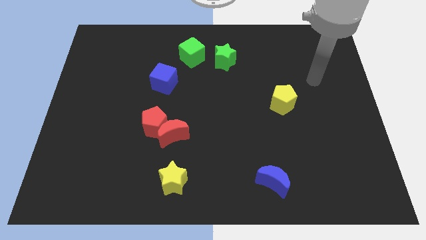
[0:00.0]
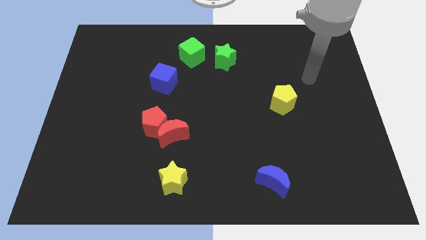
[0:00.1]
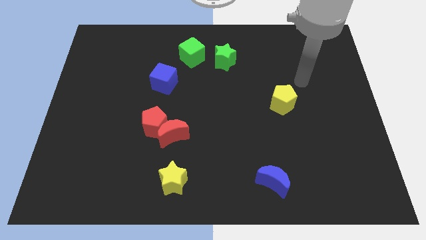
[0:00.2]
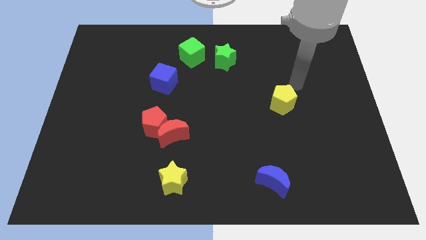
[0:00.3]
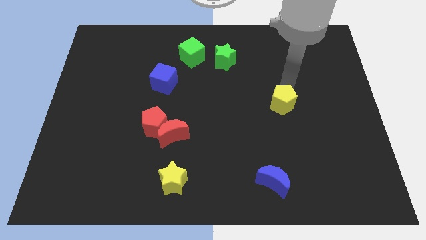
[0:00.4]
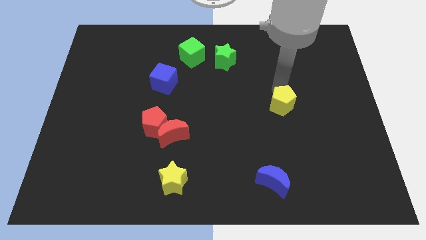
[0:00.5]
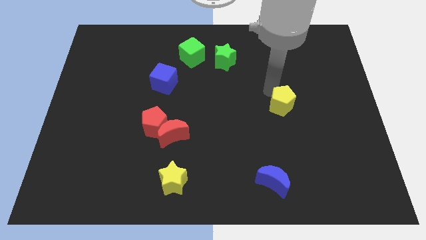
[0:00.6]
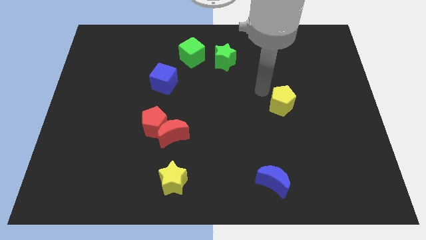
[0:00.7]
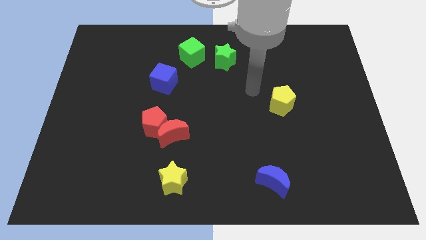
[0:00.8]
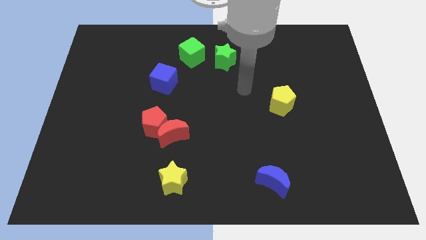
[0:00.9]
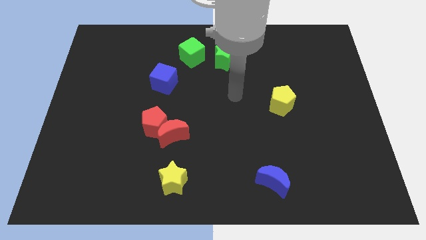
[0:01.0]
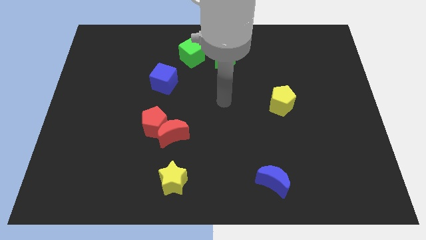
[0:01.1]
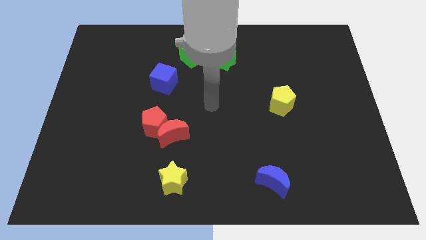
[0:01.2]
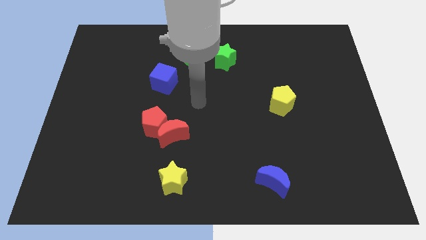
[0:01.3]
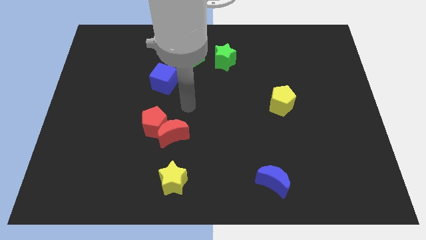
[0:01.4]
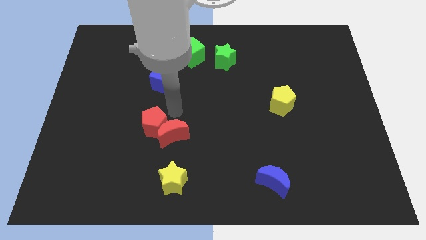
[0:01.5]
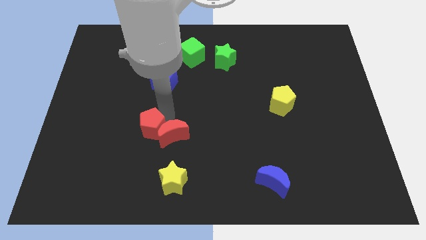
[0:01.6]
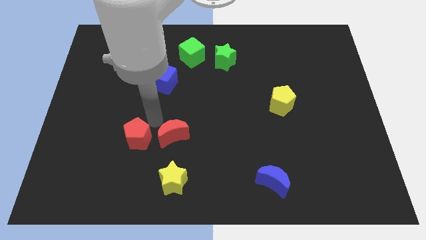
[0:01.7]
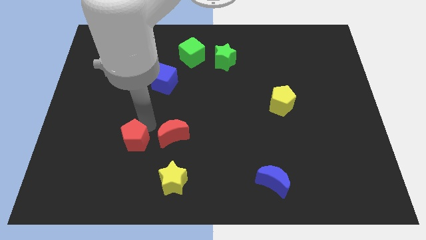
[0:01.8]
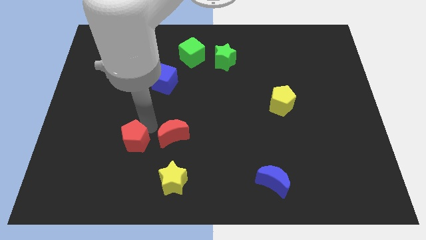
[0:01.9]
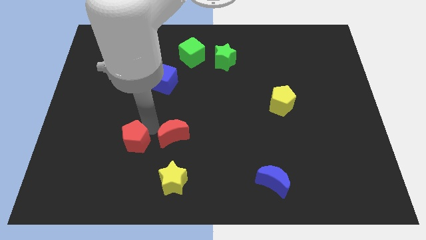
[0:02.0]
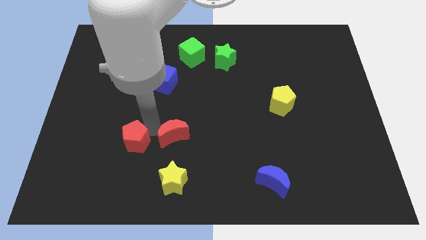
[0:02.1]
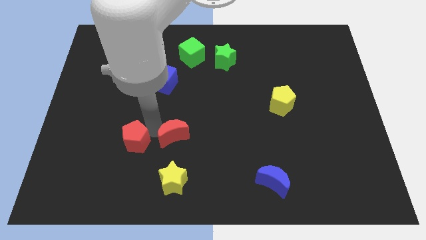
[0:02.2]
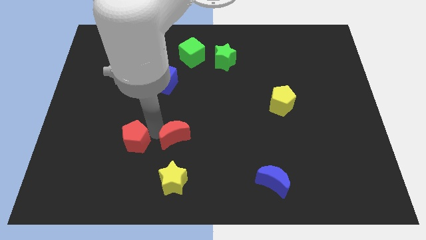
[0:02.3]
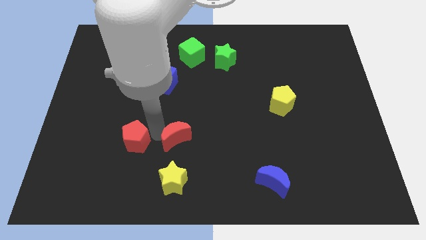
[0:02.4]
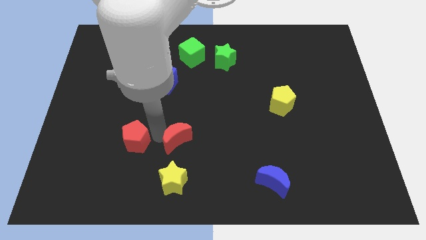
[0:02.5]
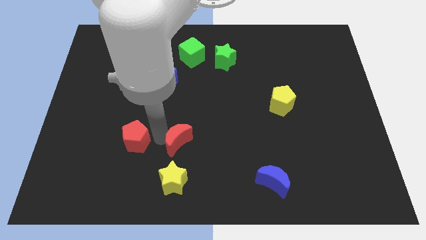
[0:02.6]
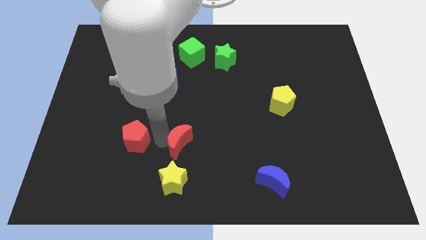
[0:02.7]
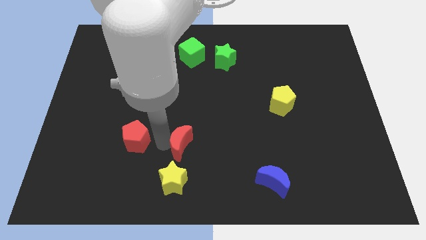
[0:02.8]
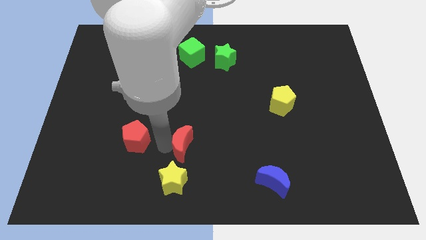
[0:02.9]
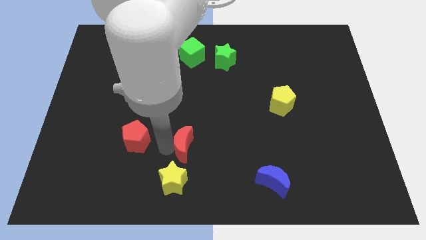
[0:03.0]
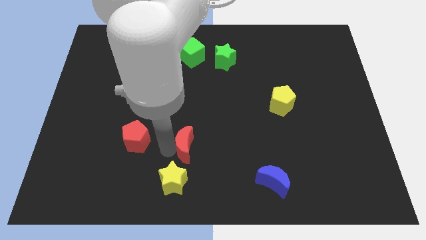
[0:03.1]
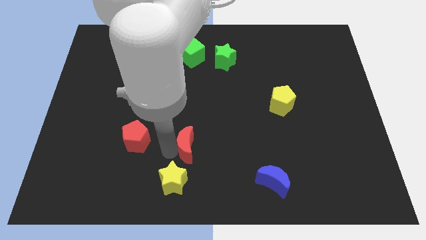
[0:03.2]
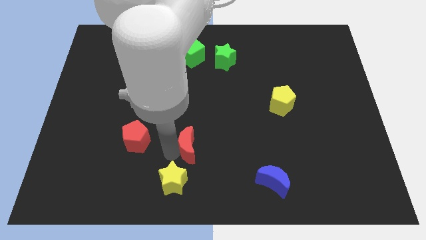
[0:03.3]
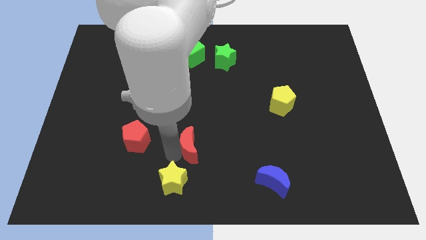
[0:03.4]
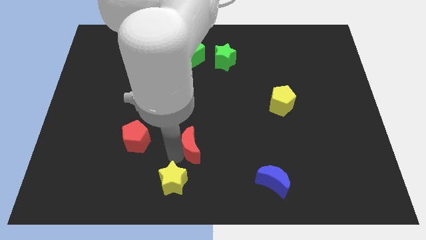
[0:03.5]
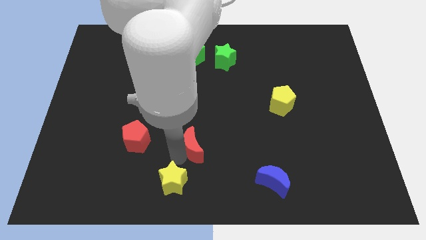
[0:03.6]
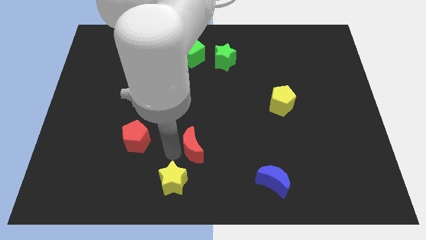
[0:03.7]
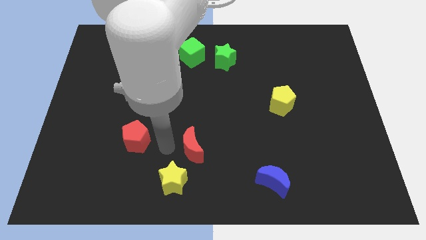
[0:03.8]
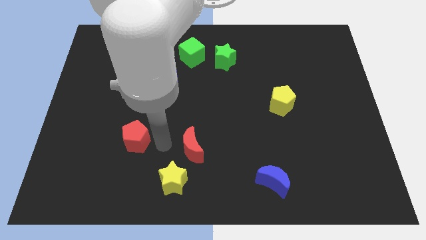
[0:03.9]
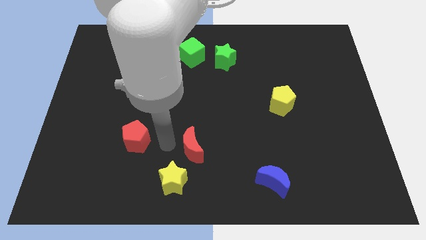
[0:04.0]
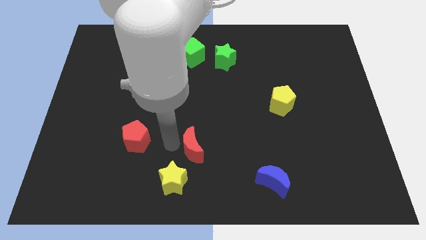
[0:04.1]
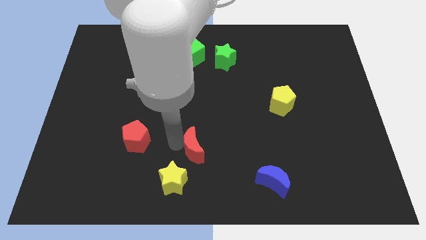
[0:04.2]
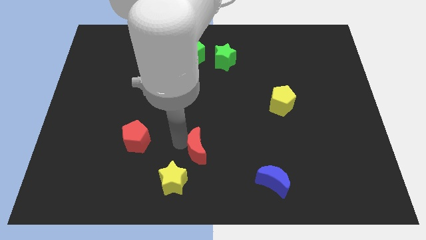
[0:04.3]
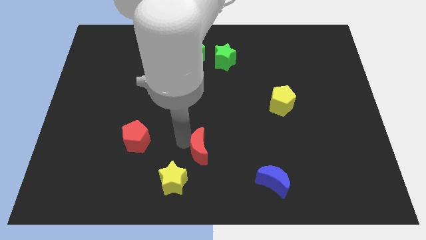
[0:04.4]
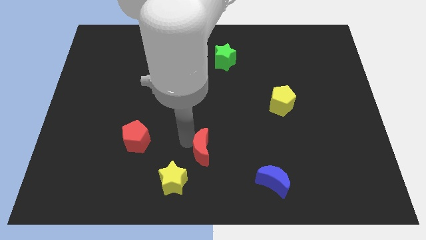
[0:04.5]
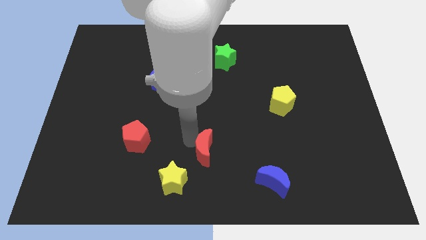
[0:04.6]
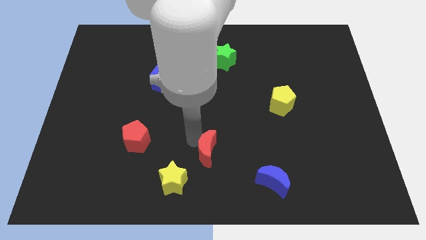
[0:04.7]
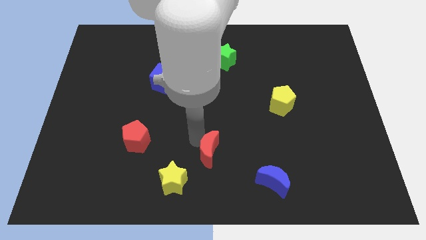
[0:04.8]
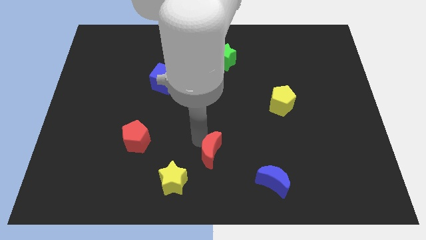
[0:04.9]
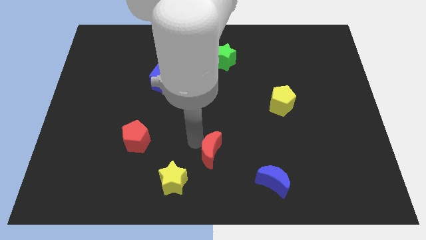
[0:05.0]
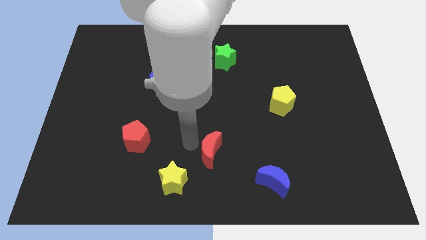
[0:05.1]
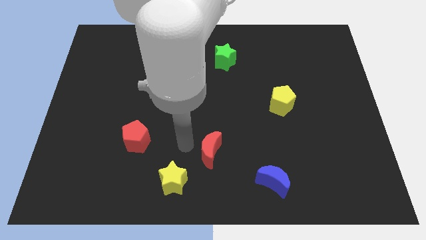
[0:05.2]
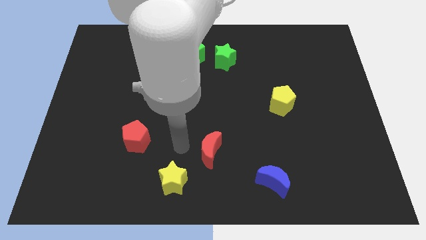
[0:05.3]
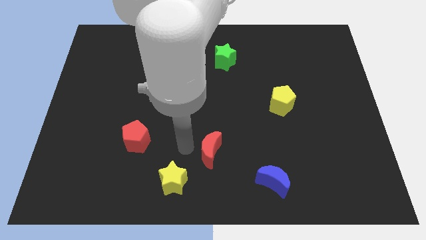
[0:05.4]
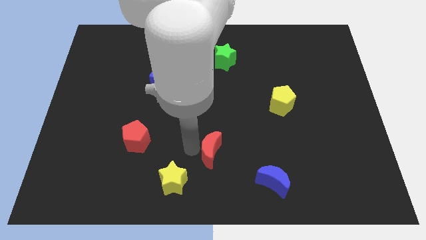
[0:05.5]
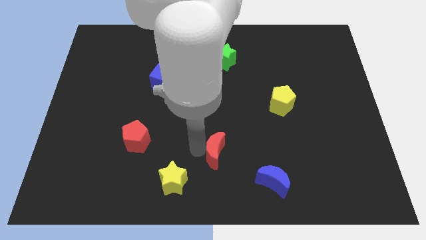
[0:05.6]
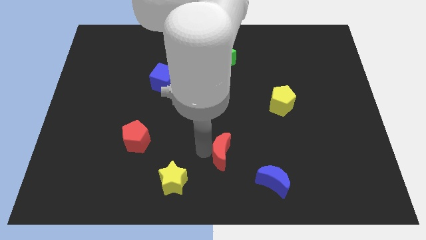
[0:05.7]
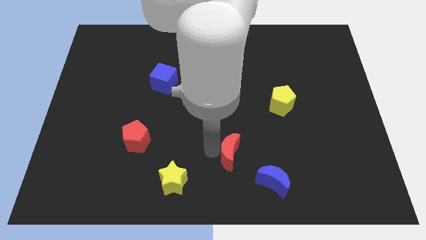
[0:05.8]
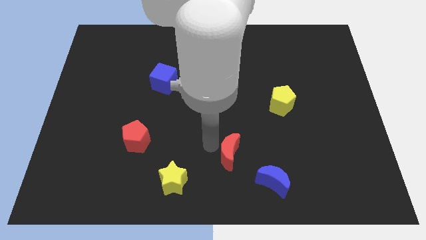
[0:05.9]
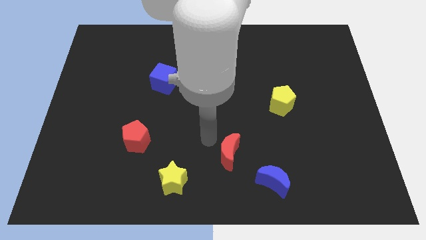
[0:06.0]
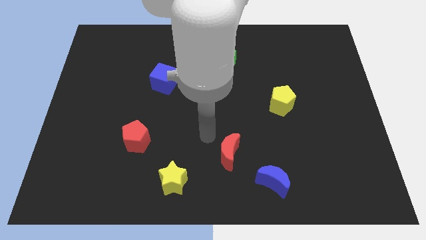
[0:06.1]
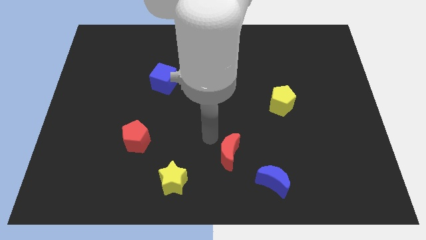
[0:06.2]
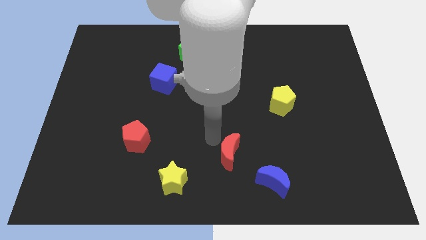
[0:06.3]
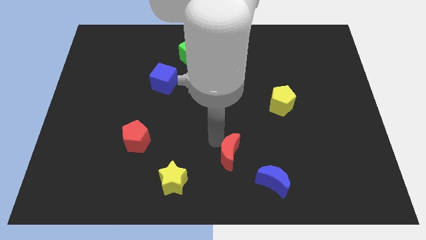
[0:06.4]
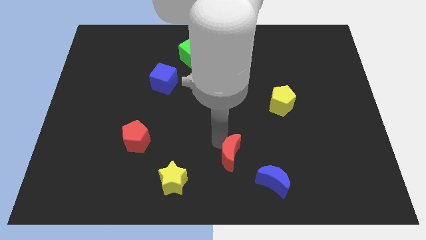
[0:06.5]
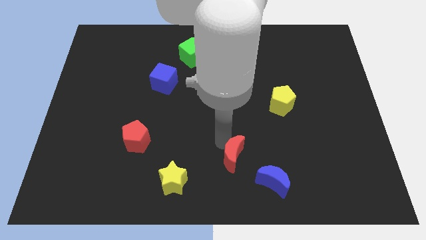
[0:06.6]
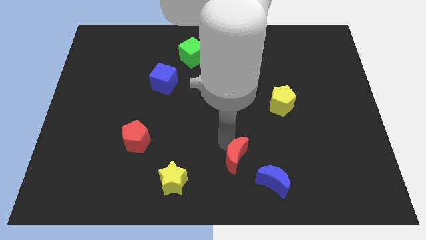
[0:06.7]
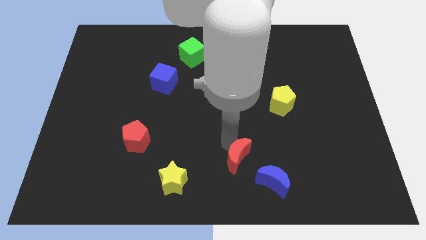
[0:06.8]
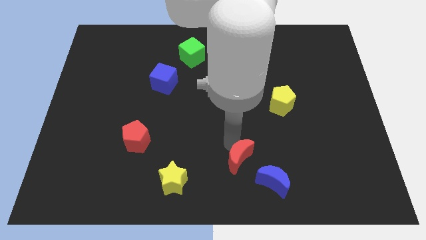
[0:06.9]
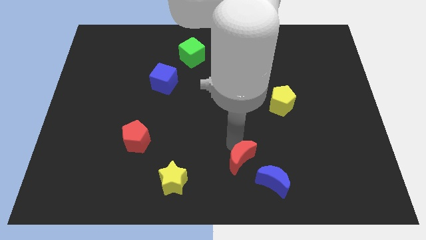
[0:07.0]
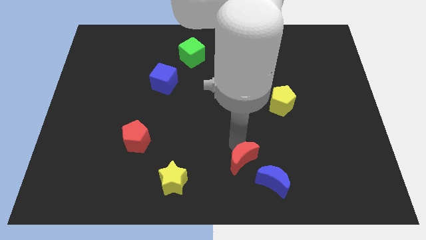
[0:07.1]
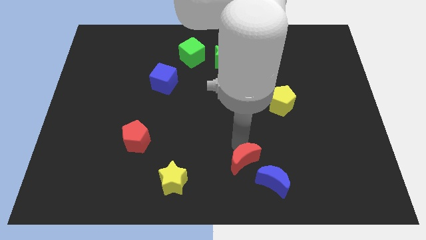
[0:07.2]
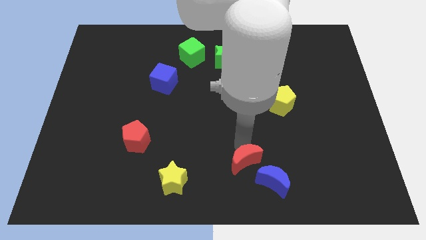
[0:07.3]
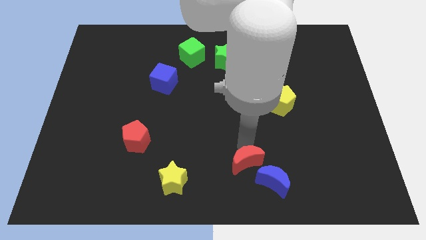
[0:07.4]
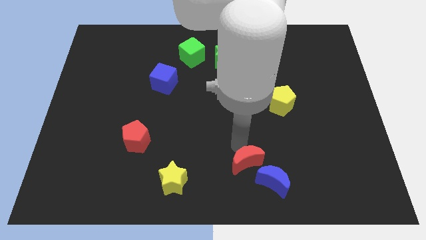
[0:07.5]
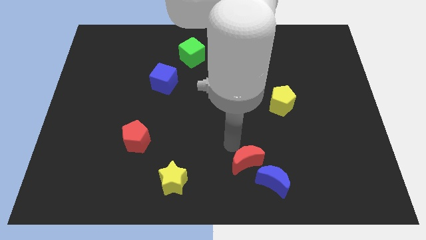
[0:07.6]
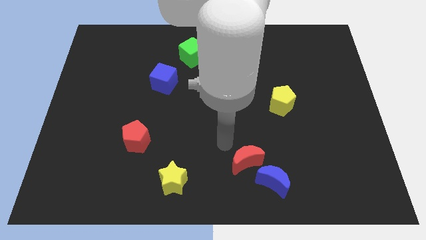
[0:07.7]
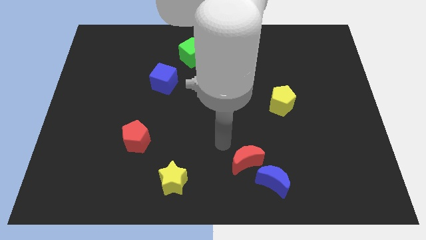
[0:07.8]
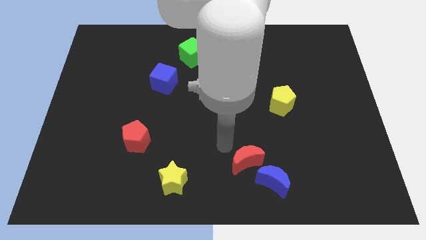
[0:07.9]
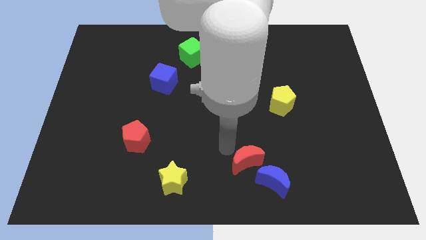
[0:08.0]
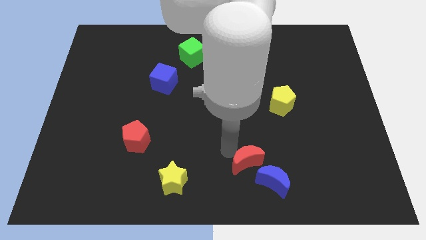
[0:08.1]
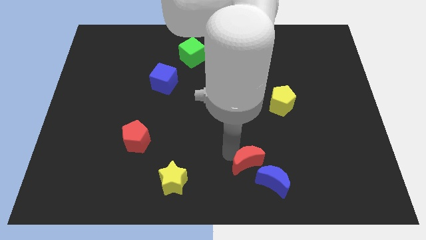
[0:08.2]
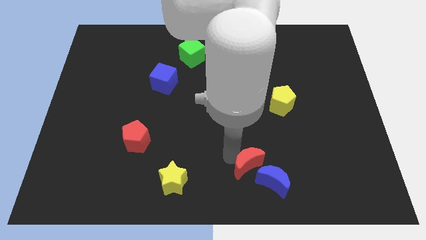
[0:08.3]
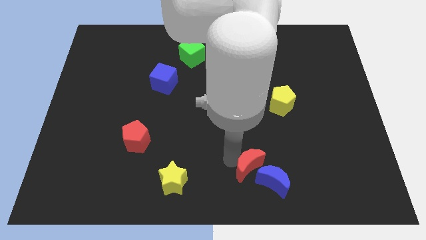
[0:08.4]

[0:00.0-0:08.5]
slide the red moon next to the blue moon
